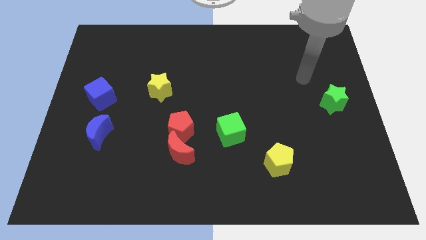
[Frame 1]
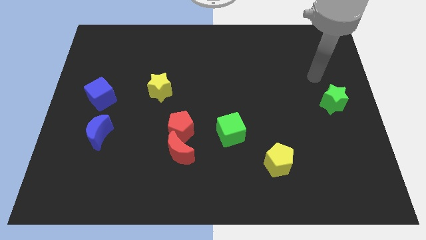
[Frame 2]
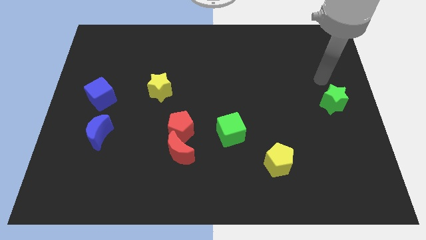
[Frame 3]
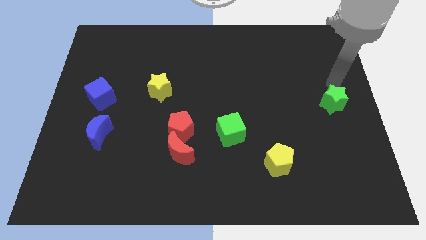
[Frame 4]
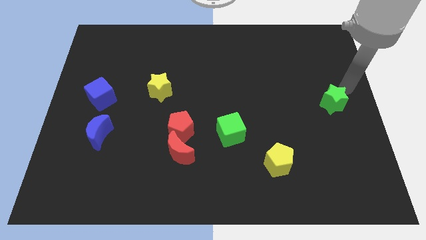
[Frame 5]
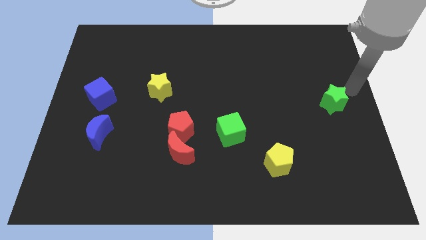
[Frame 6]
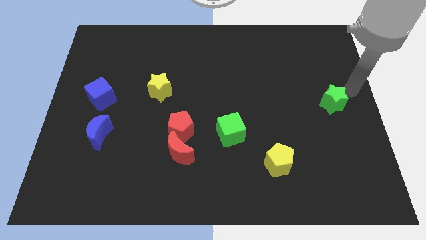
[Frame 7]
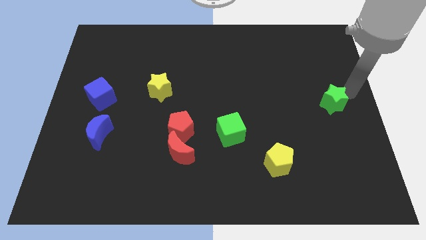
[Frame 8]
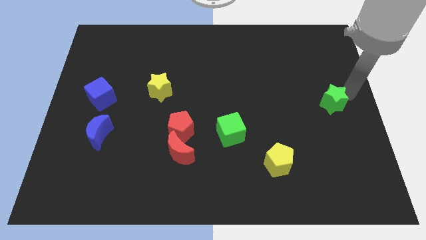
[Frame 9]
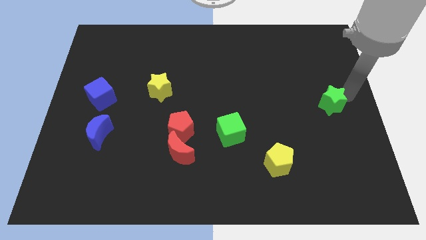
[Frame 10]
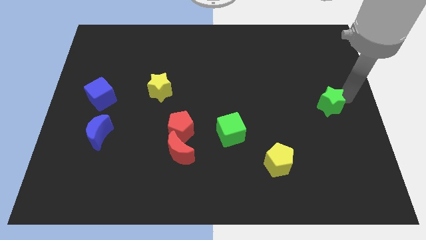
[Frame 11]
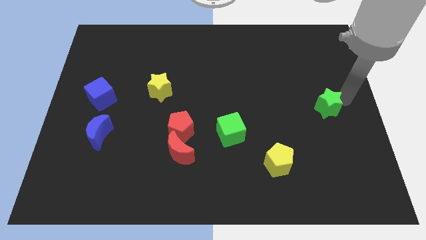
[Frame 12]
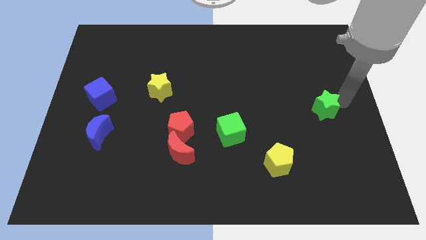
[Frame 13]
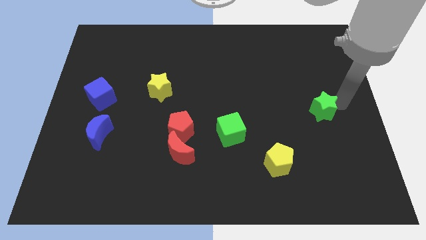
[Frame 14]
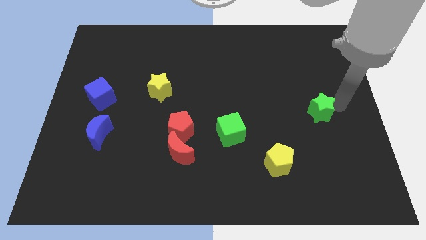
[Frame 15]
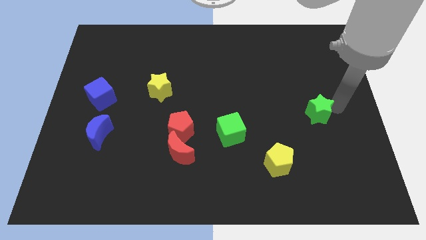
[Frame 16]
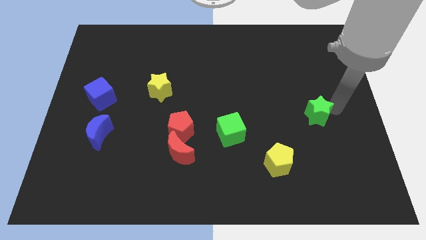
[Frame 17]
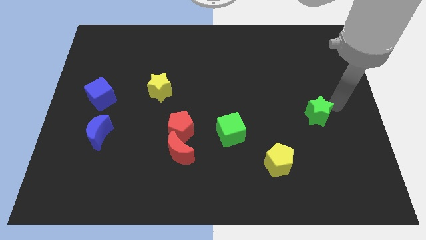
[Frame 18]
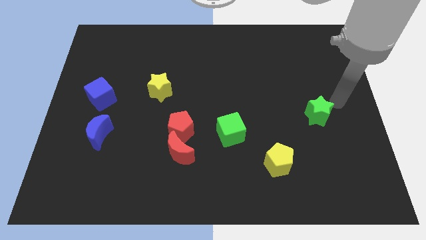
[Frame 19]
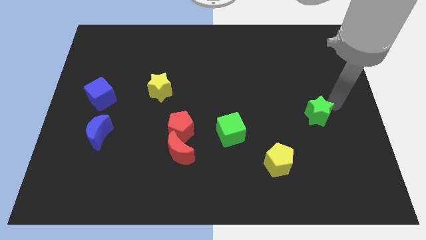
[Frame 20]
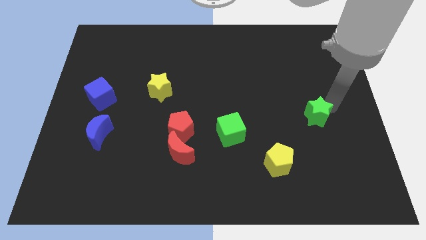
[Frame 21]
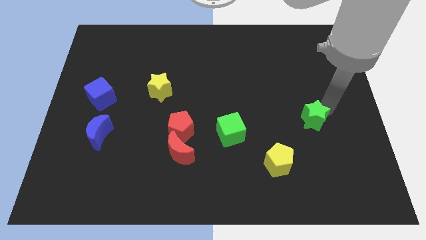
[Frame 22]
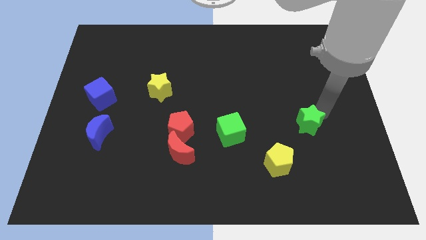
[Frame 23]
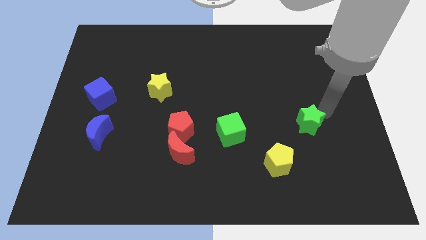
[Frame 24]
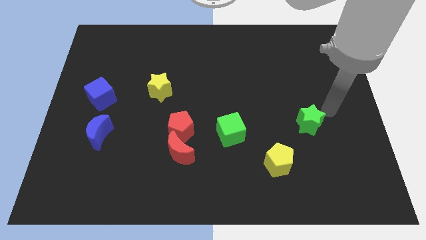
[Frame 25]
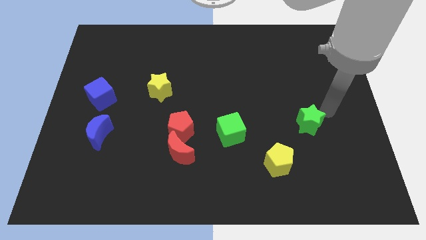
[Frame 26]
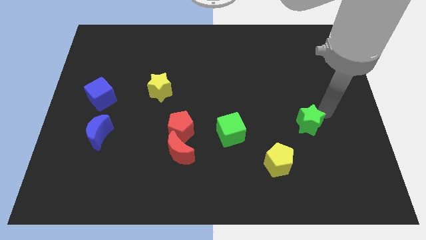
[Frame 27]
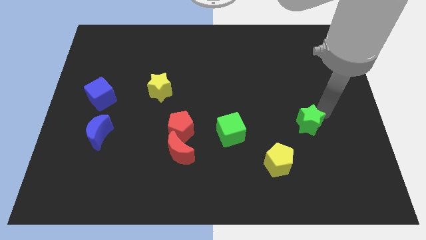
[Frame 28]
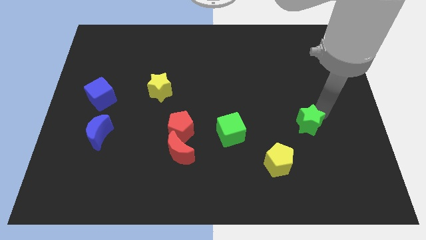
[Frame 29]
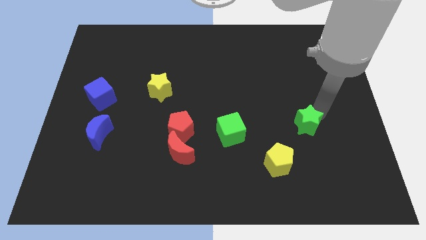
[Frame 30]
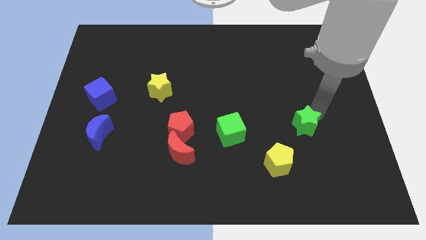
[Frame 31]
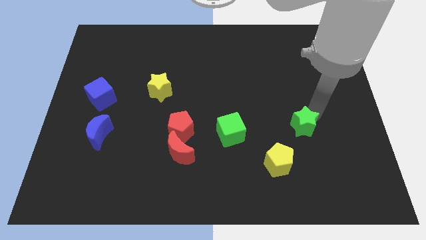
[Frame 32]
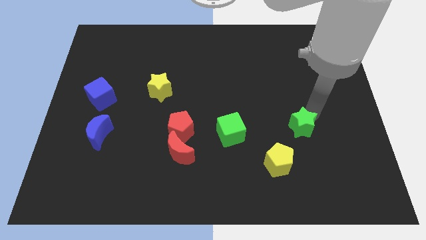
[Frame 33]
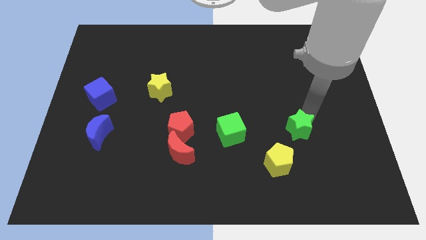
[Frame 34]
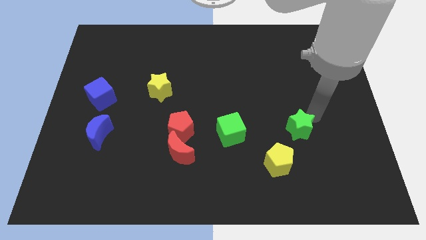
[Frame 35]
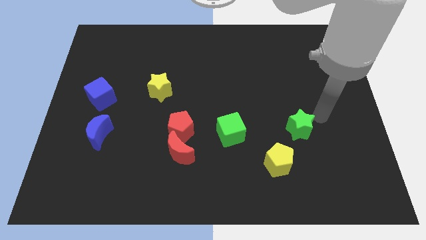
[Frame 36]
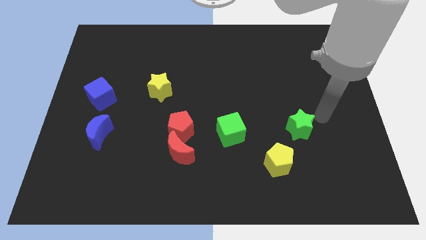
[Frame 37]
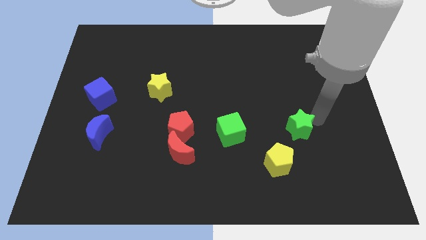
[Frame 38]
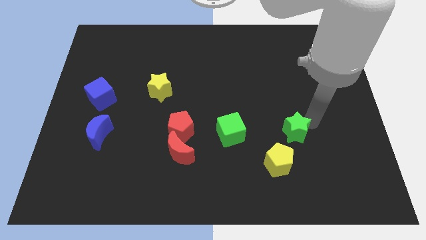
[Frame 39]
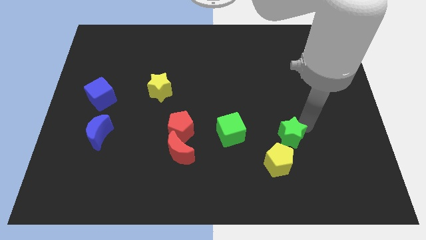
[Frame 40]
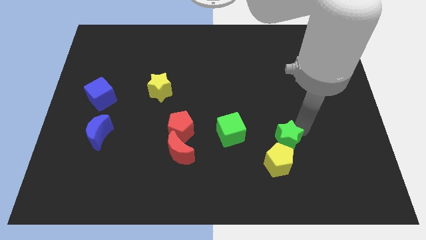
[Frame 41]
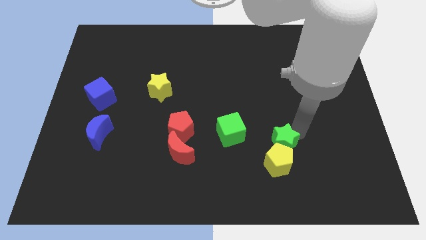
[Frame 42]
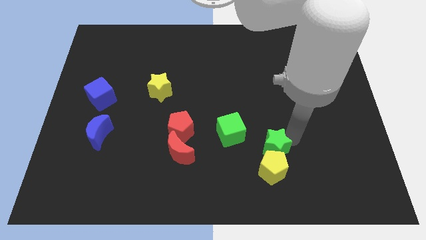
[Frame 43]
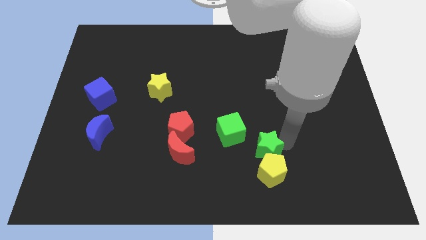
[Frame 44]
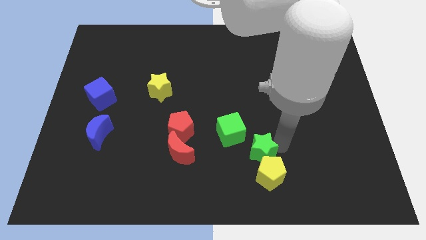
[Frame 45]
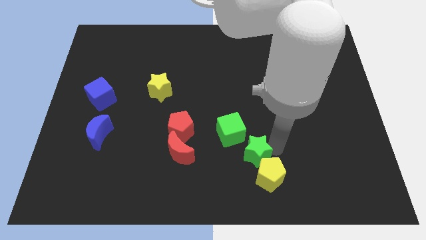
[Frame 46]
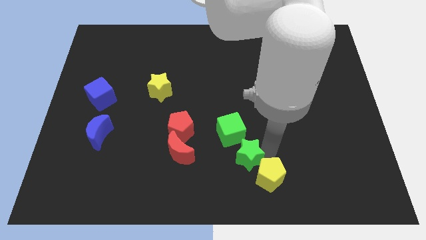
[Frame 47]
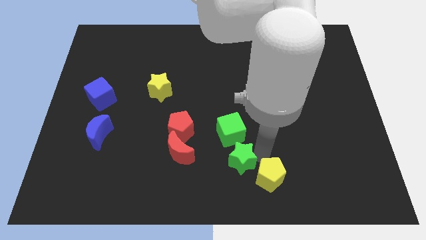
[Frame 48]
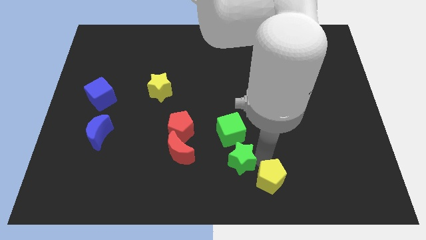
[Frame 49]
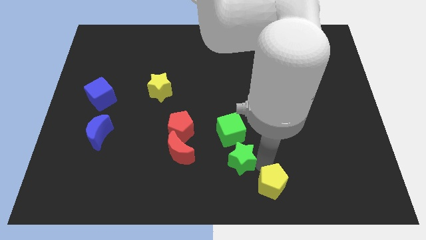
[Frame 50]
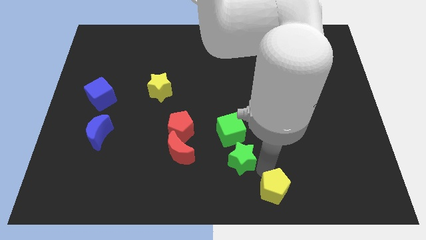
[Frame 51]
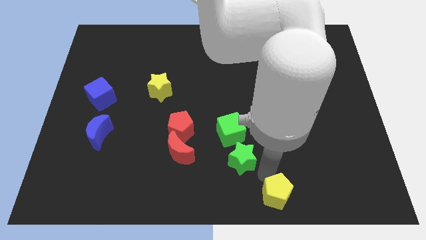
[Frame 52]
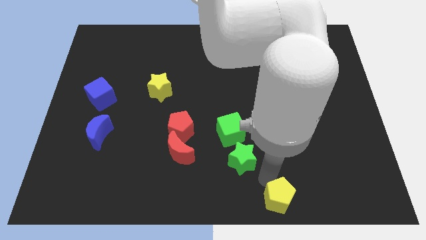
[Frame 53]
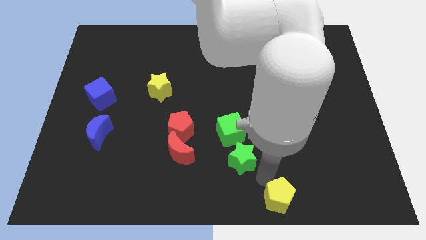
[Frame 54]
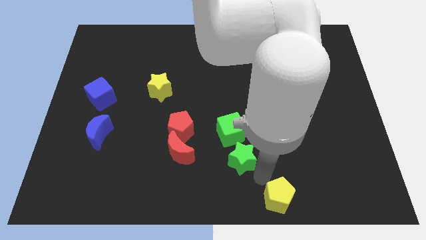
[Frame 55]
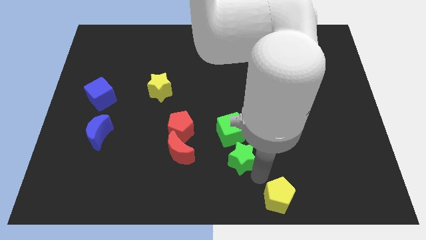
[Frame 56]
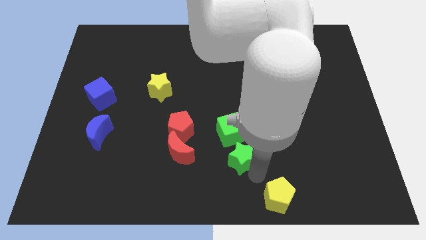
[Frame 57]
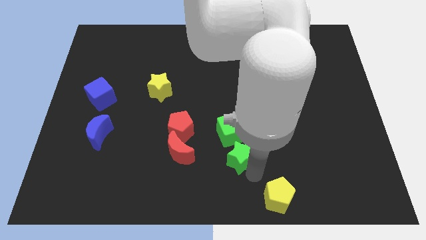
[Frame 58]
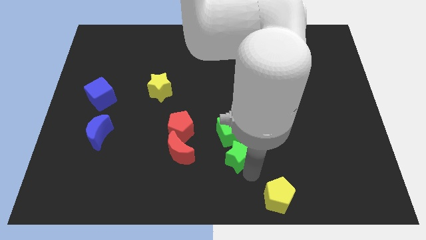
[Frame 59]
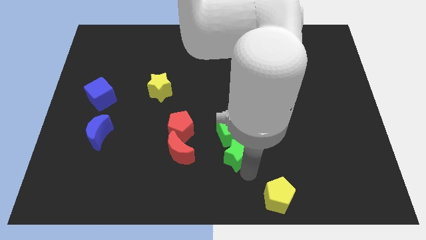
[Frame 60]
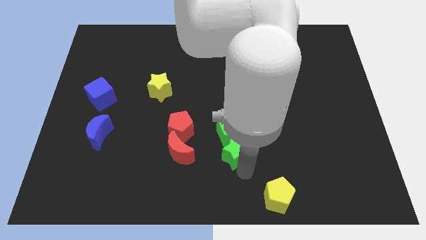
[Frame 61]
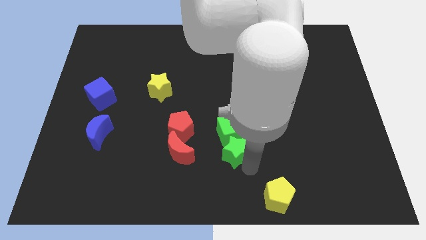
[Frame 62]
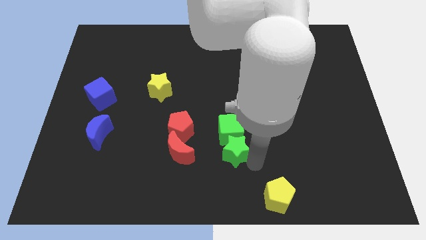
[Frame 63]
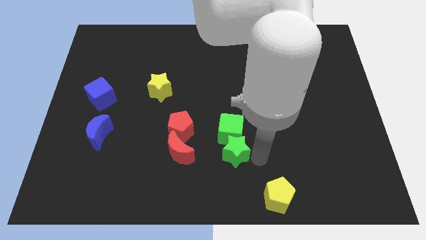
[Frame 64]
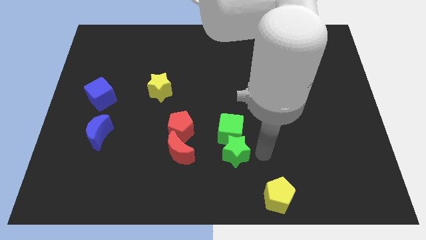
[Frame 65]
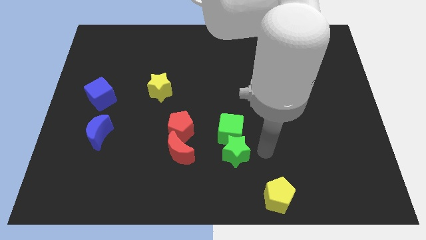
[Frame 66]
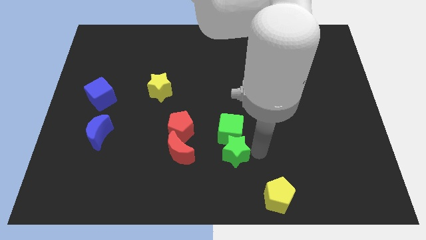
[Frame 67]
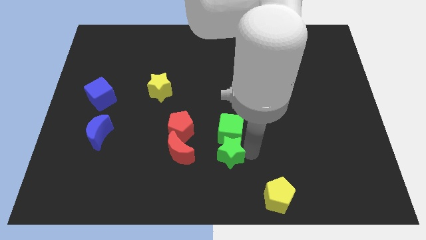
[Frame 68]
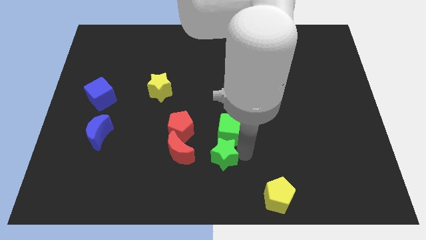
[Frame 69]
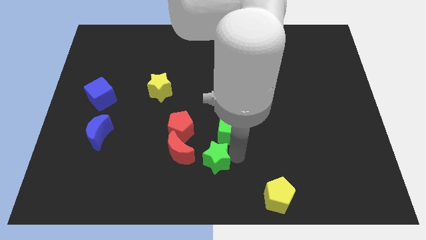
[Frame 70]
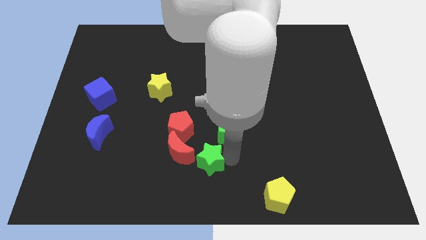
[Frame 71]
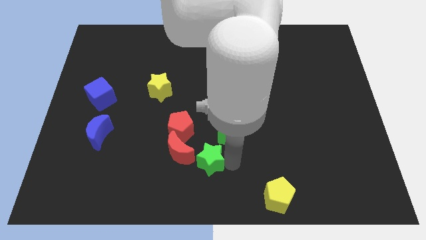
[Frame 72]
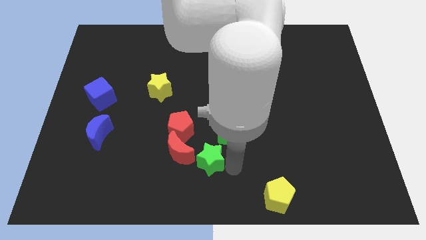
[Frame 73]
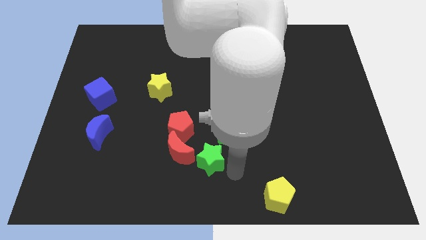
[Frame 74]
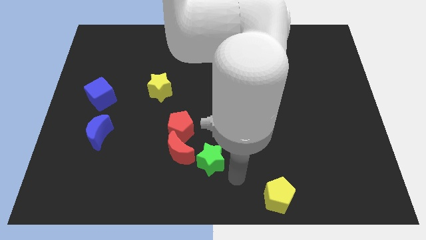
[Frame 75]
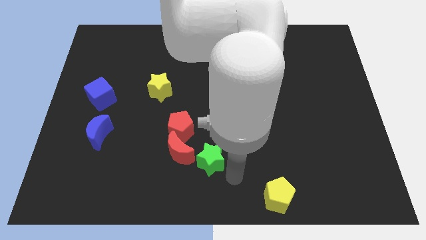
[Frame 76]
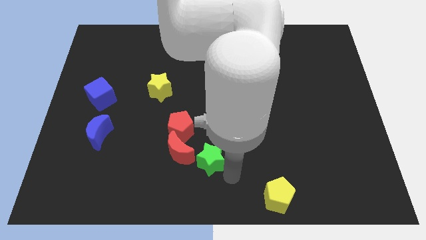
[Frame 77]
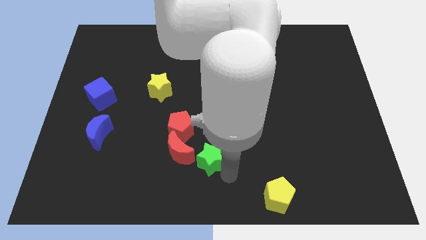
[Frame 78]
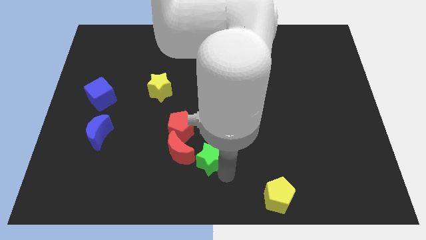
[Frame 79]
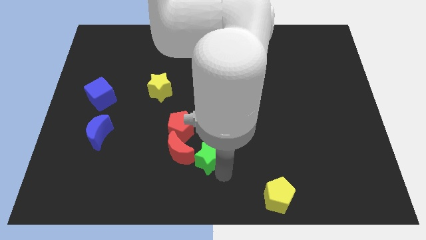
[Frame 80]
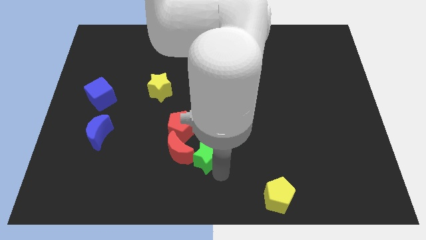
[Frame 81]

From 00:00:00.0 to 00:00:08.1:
slide the green star towards the red moon
